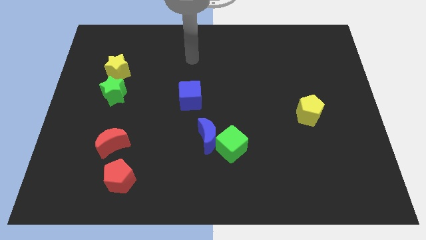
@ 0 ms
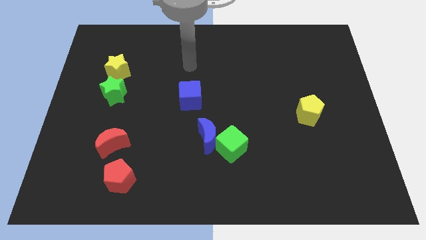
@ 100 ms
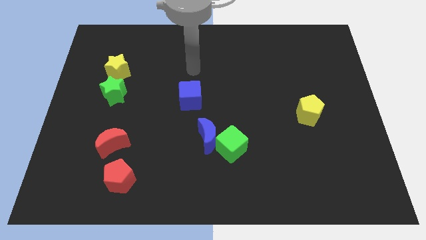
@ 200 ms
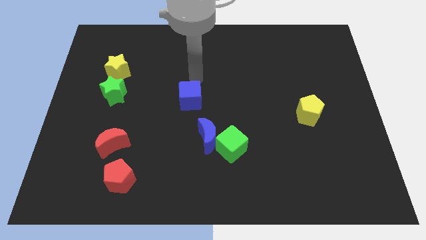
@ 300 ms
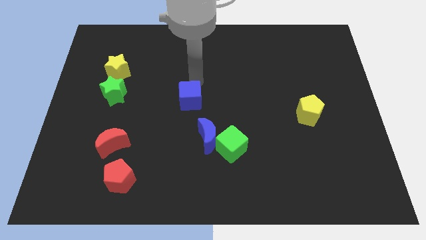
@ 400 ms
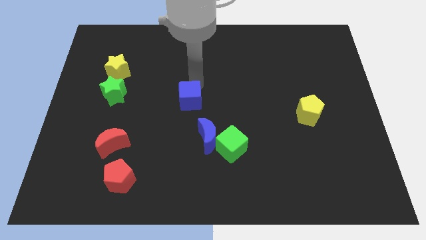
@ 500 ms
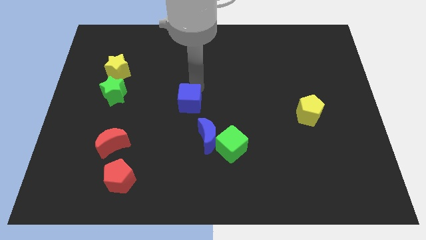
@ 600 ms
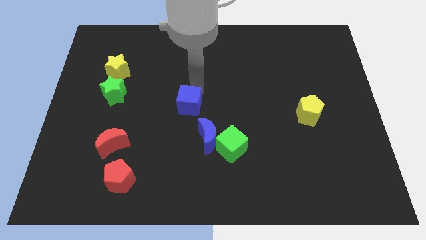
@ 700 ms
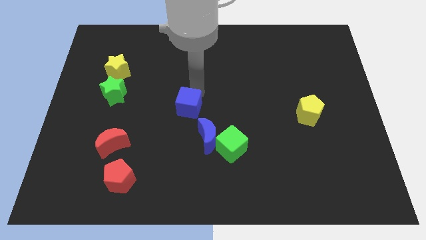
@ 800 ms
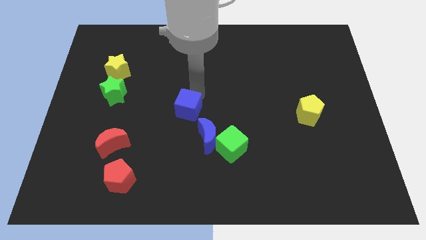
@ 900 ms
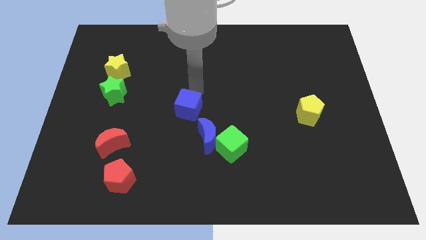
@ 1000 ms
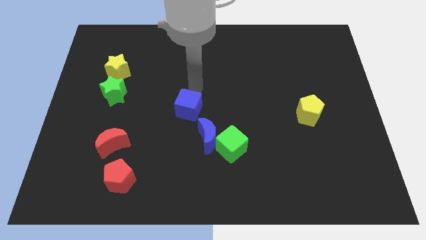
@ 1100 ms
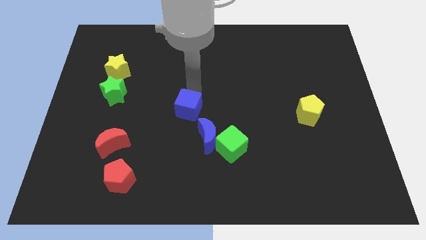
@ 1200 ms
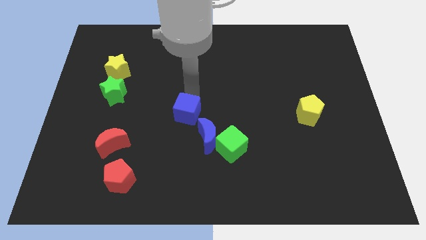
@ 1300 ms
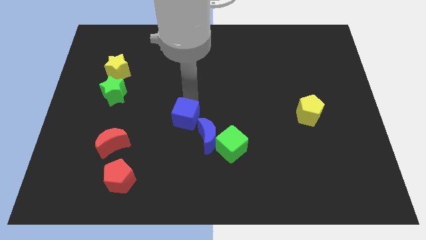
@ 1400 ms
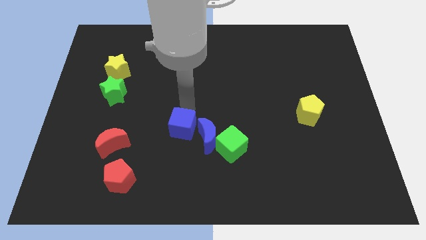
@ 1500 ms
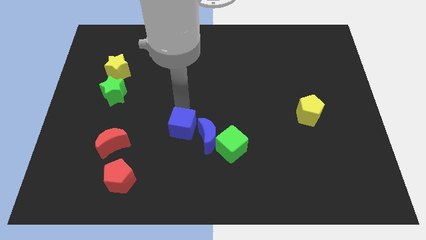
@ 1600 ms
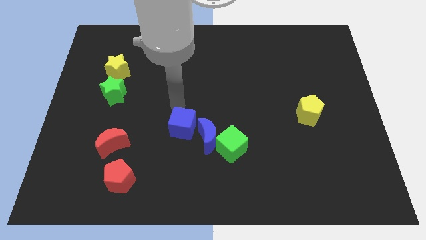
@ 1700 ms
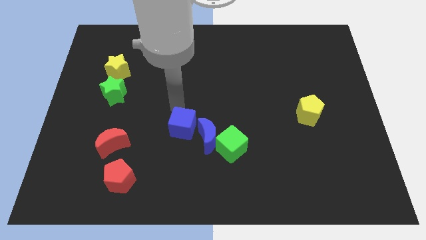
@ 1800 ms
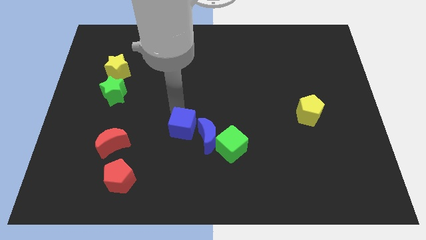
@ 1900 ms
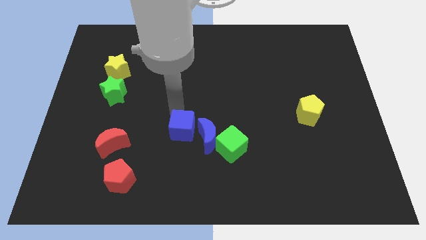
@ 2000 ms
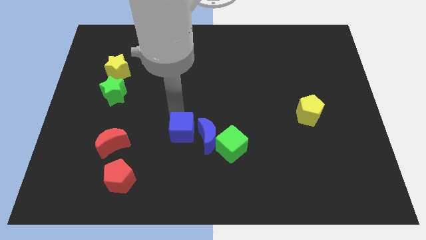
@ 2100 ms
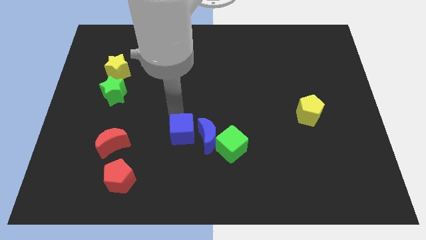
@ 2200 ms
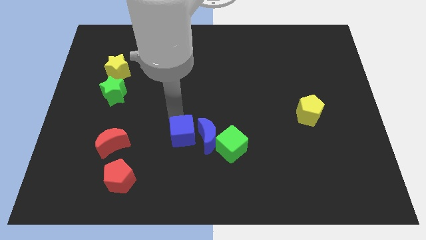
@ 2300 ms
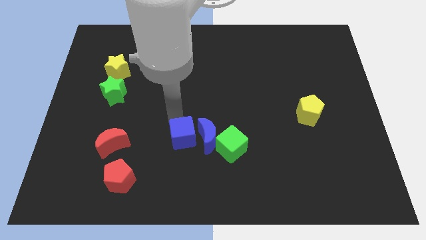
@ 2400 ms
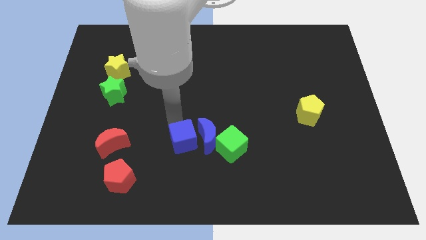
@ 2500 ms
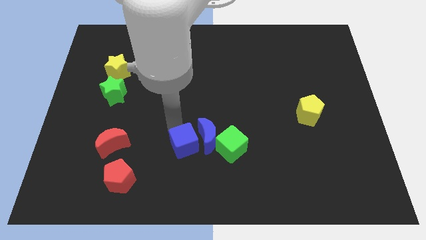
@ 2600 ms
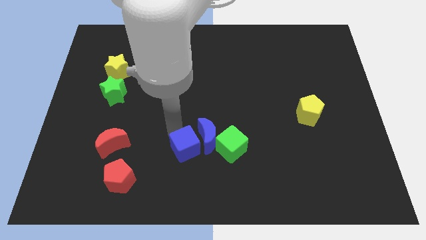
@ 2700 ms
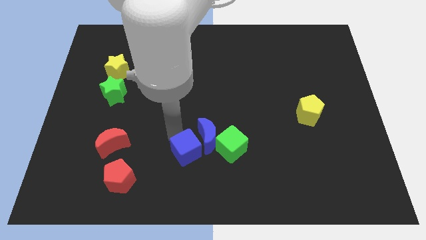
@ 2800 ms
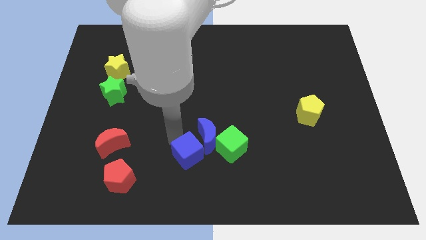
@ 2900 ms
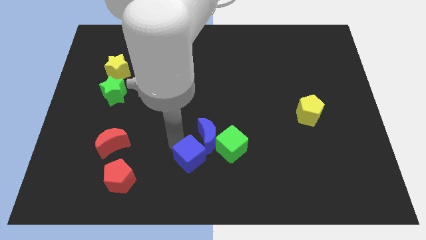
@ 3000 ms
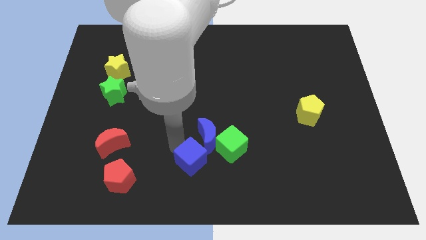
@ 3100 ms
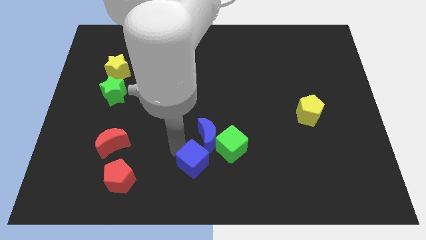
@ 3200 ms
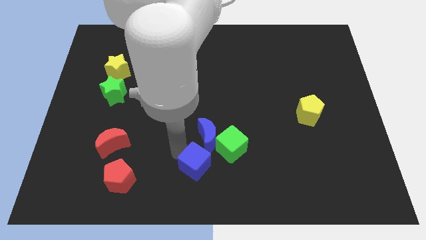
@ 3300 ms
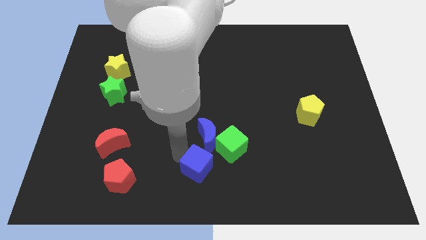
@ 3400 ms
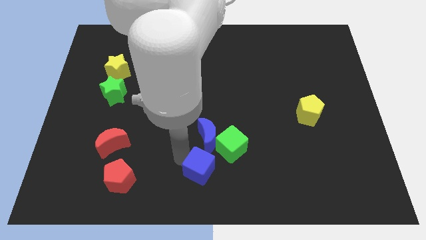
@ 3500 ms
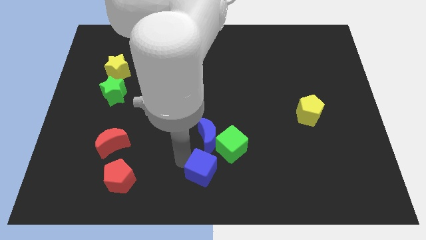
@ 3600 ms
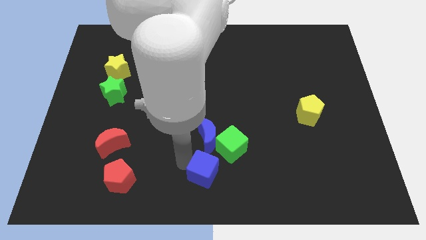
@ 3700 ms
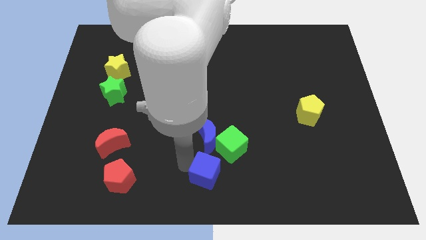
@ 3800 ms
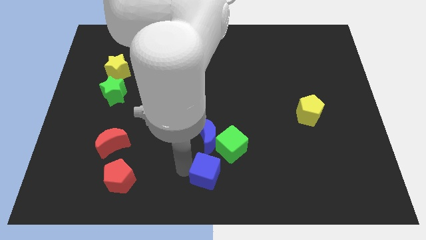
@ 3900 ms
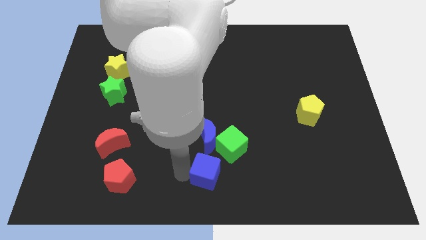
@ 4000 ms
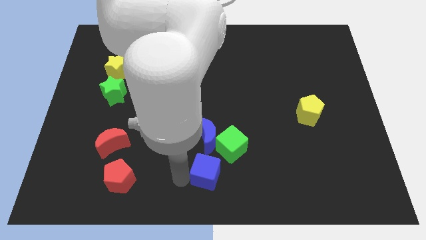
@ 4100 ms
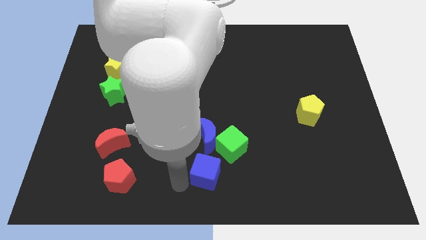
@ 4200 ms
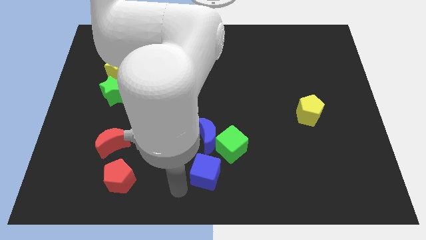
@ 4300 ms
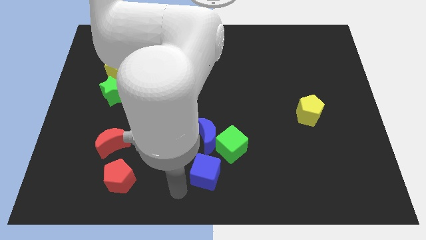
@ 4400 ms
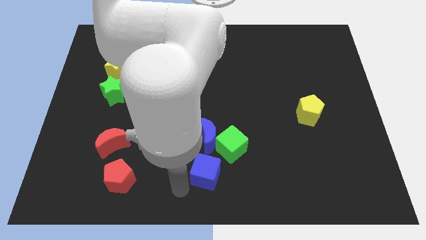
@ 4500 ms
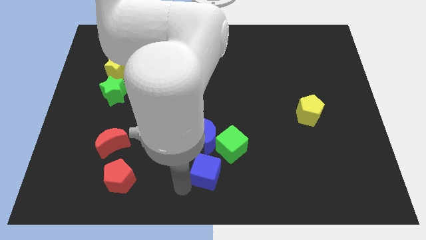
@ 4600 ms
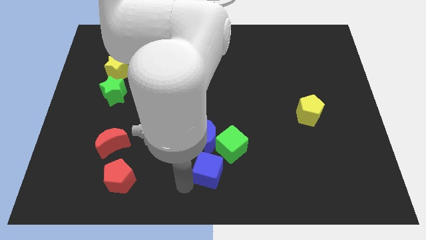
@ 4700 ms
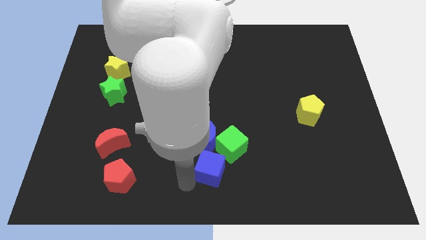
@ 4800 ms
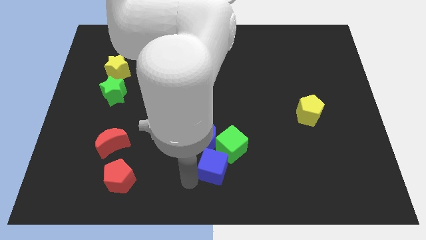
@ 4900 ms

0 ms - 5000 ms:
put the blue cube to the bottom right side of the blue moon

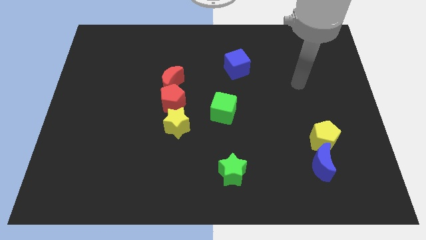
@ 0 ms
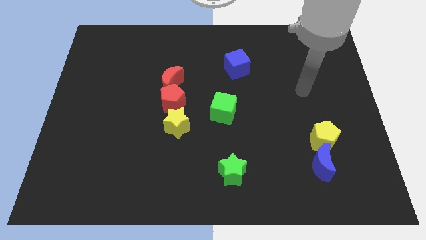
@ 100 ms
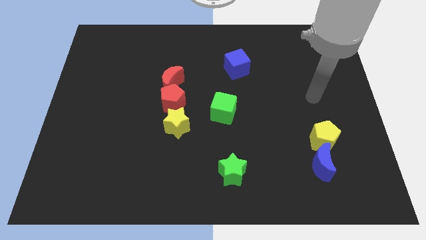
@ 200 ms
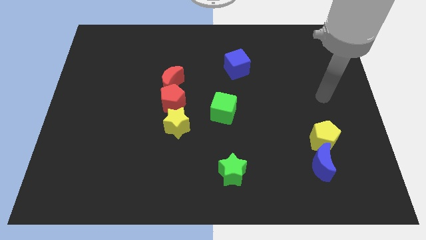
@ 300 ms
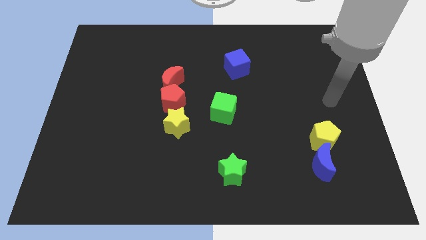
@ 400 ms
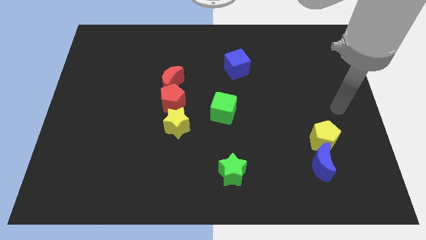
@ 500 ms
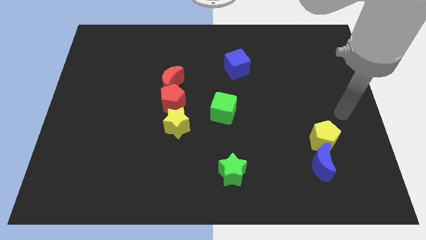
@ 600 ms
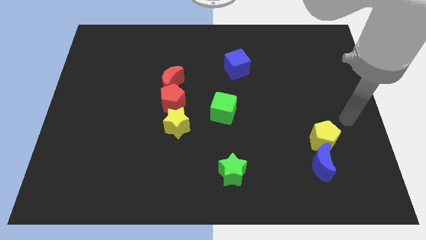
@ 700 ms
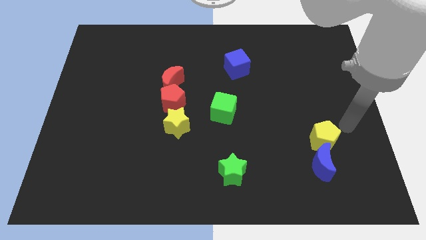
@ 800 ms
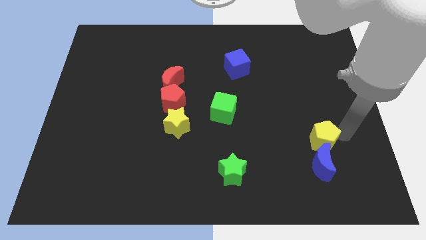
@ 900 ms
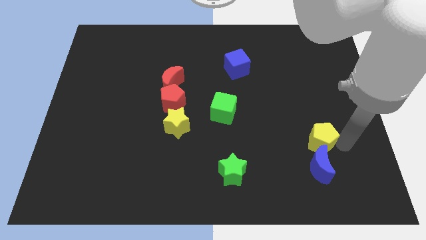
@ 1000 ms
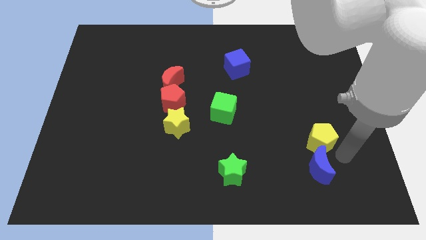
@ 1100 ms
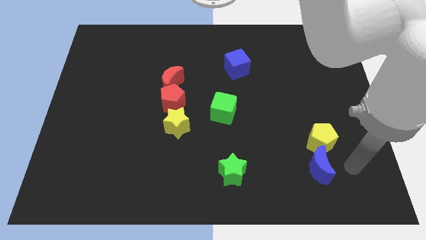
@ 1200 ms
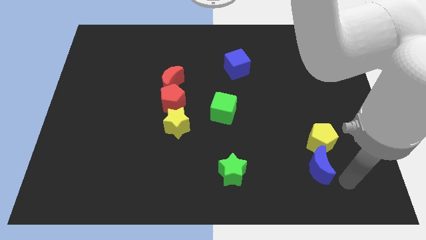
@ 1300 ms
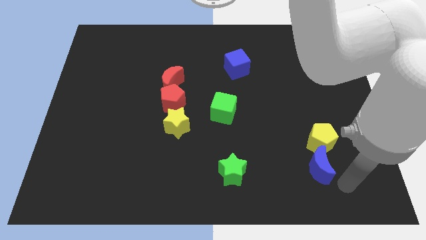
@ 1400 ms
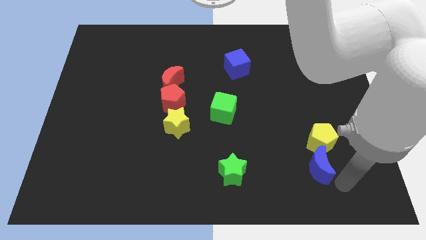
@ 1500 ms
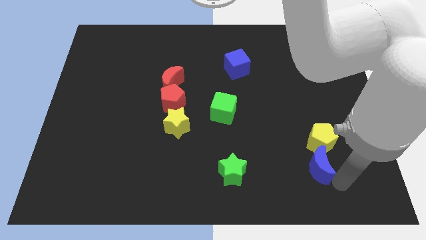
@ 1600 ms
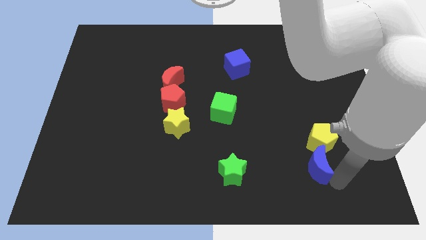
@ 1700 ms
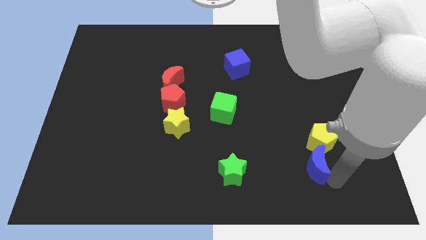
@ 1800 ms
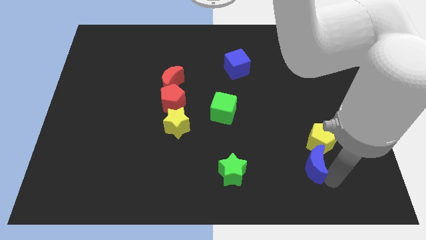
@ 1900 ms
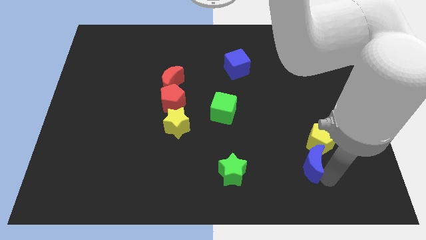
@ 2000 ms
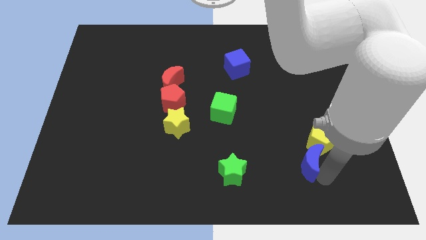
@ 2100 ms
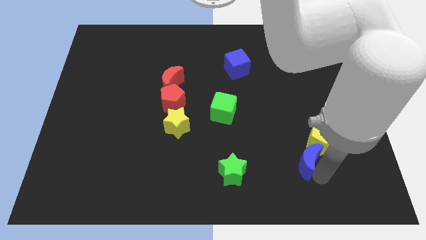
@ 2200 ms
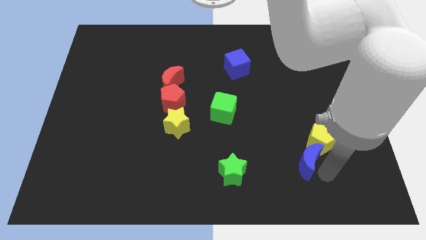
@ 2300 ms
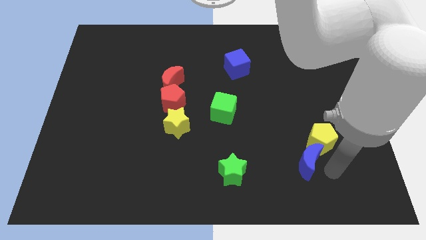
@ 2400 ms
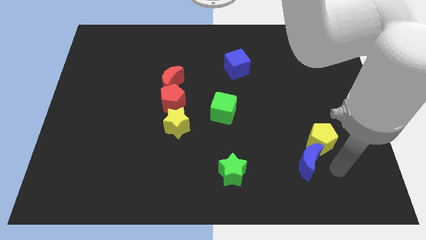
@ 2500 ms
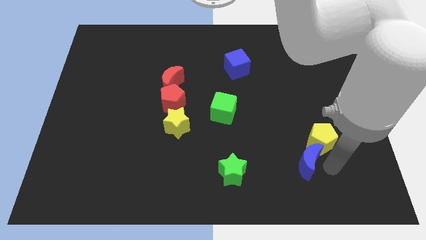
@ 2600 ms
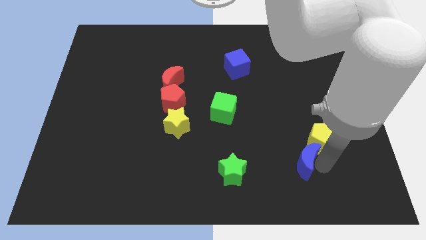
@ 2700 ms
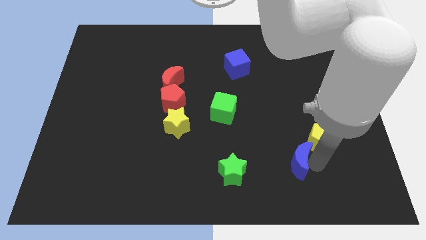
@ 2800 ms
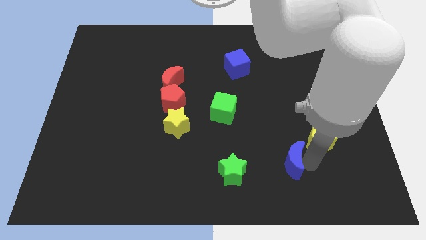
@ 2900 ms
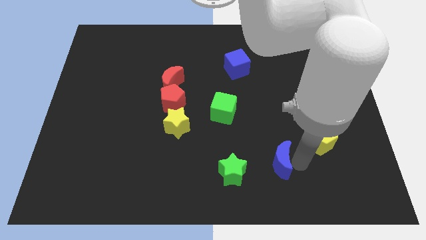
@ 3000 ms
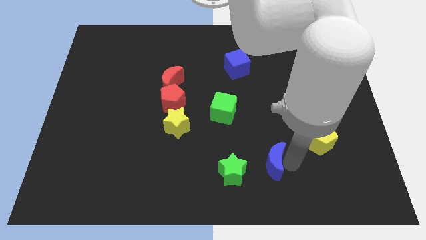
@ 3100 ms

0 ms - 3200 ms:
push the blue moon to the top right of the green star
